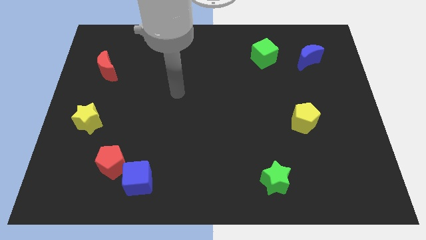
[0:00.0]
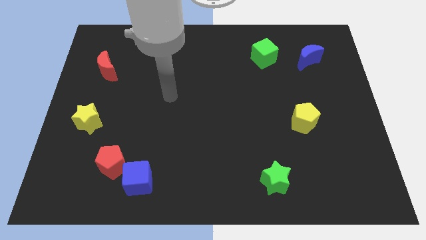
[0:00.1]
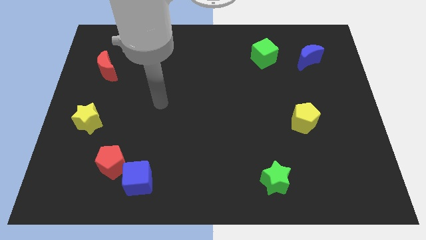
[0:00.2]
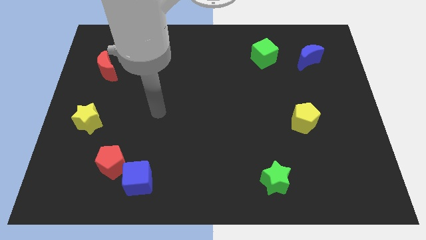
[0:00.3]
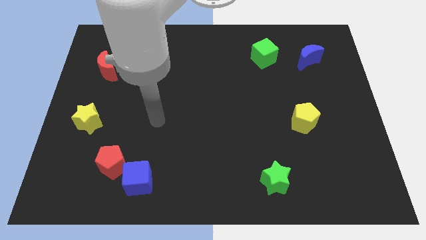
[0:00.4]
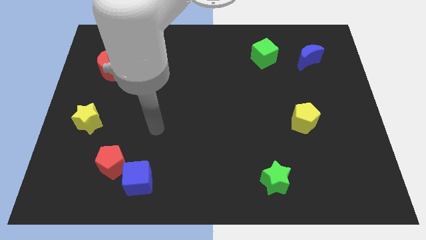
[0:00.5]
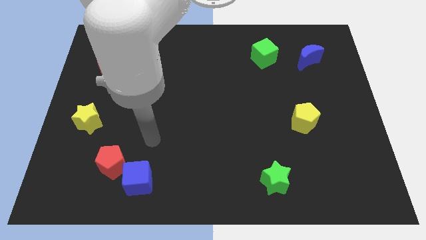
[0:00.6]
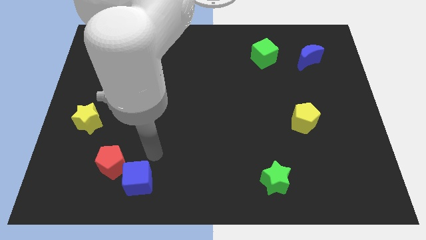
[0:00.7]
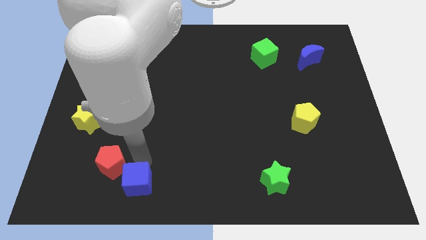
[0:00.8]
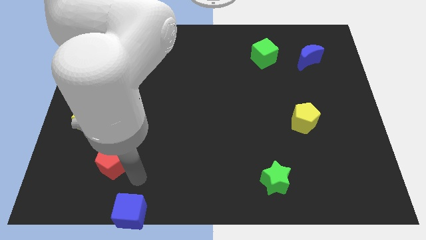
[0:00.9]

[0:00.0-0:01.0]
pull the red pentagon apart from the blue cube

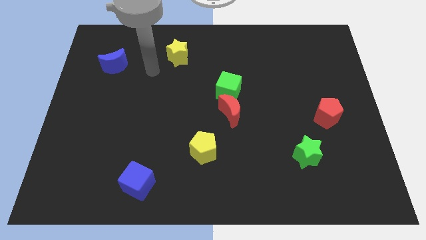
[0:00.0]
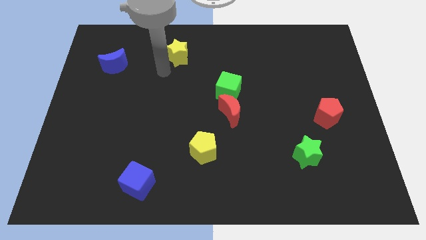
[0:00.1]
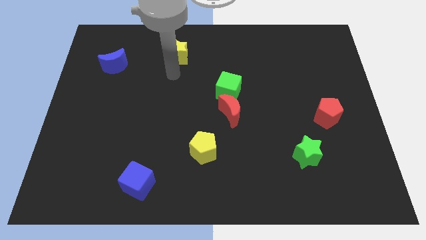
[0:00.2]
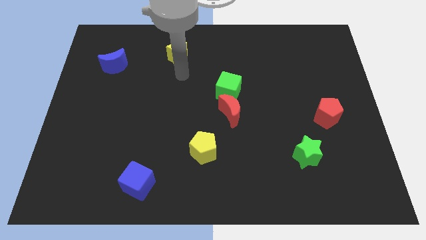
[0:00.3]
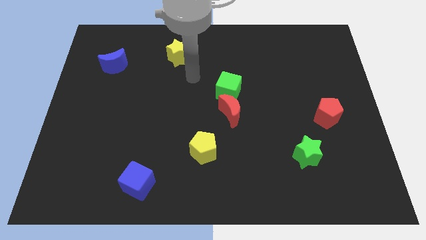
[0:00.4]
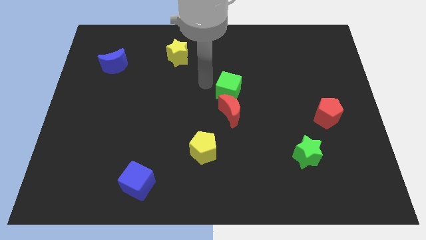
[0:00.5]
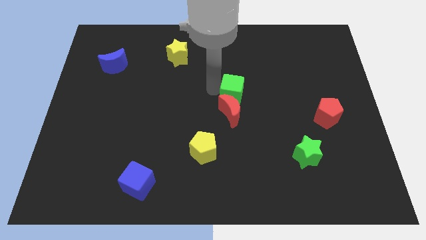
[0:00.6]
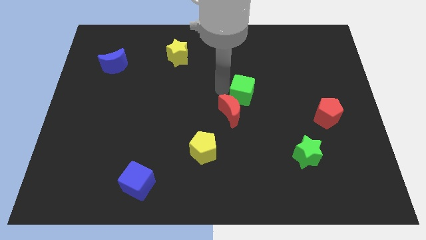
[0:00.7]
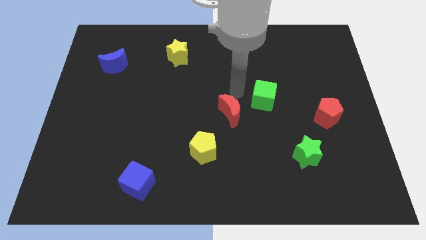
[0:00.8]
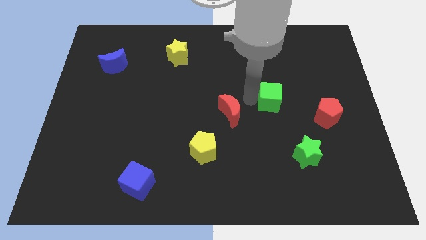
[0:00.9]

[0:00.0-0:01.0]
separate the red moon from the green cube

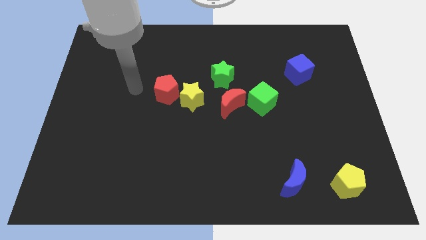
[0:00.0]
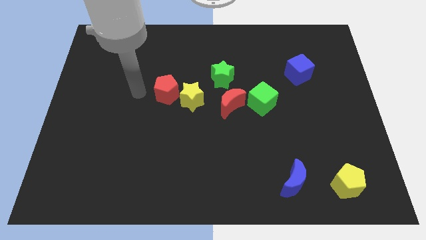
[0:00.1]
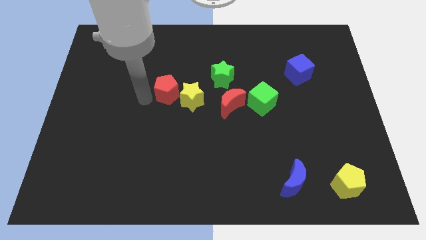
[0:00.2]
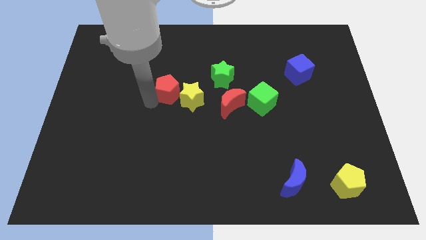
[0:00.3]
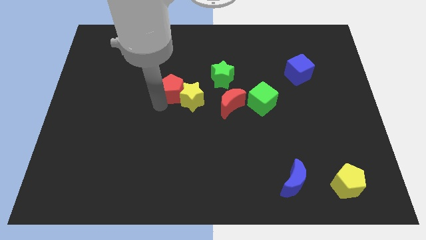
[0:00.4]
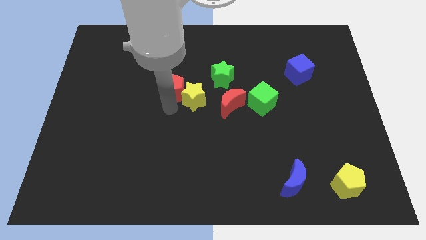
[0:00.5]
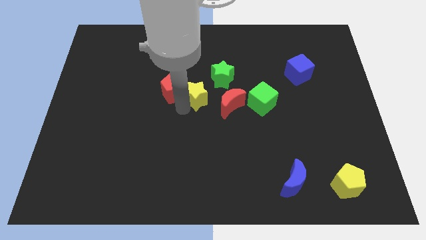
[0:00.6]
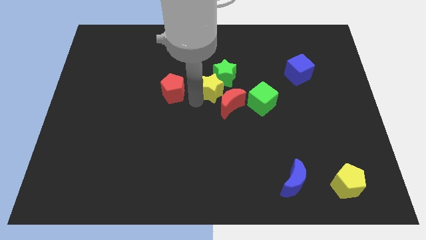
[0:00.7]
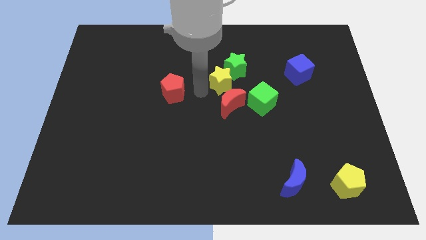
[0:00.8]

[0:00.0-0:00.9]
move the red pentagon away from the yellow star

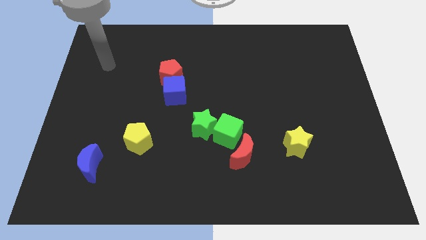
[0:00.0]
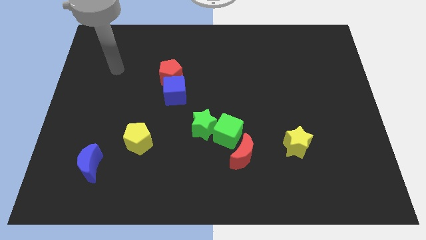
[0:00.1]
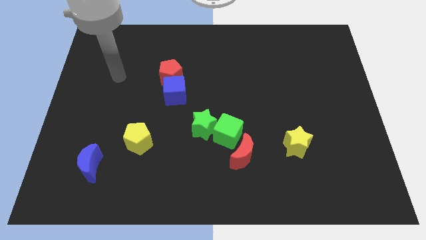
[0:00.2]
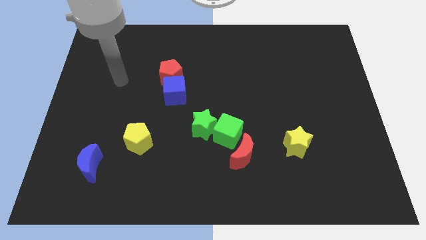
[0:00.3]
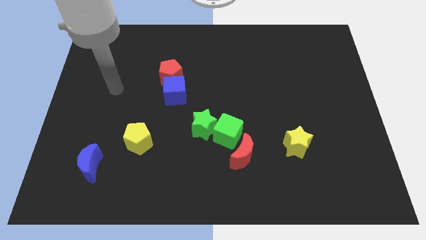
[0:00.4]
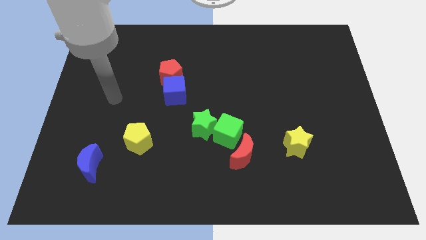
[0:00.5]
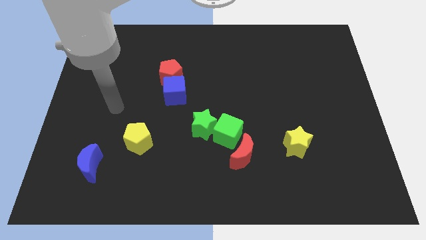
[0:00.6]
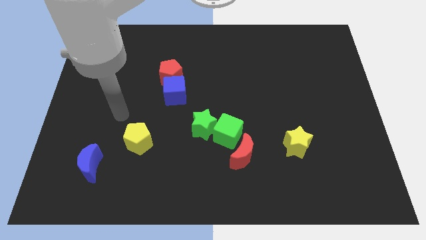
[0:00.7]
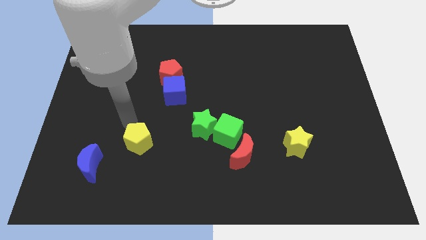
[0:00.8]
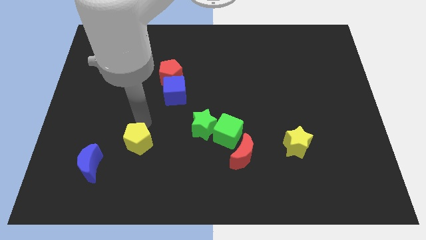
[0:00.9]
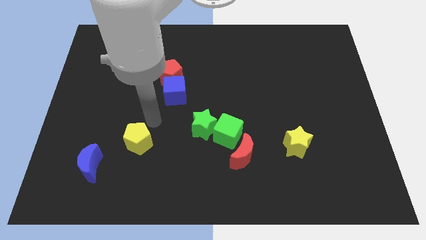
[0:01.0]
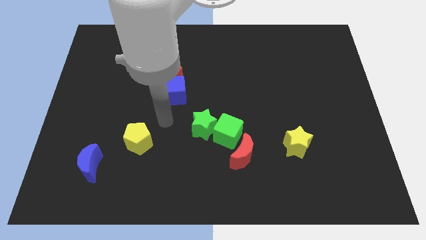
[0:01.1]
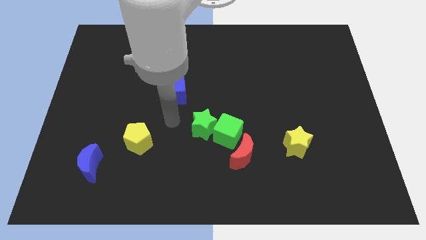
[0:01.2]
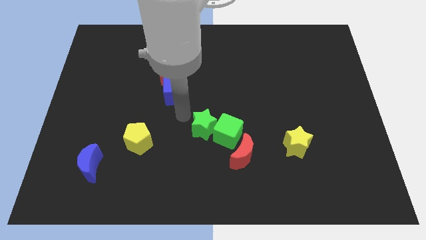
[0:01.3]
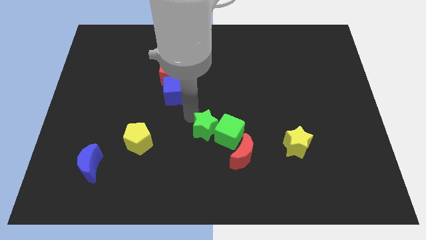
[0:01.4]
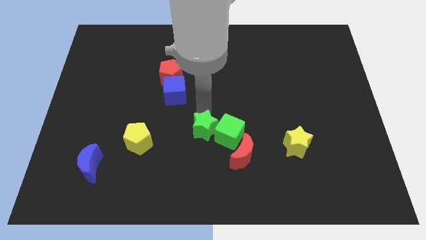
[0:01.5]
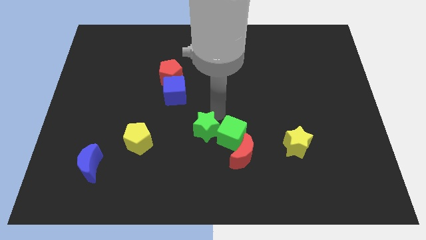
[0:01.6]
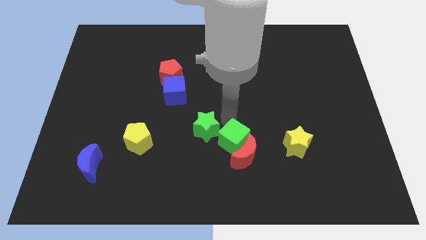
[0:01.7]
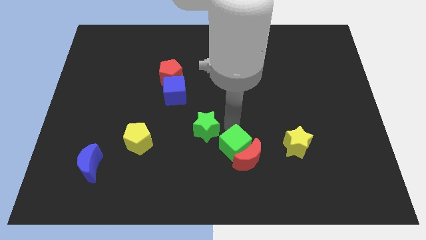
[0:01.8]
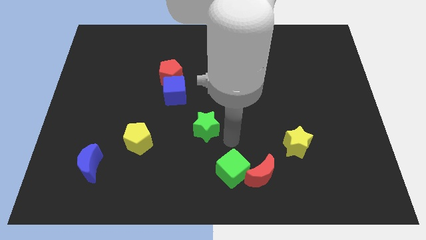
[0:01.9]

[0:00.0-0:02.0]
pull the green star apart from the green cube

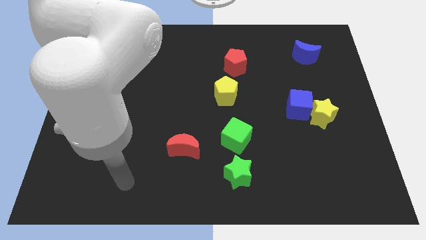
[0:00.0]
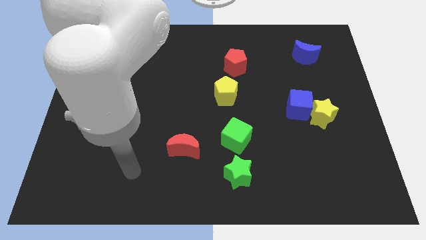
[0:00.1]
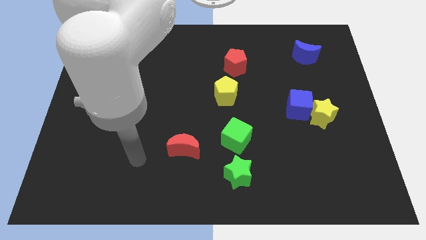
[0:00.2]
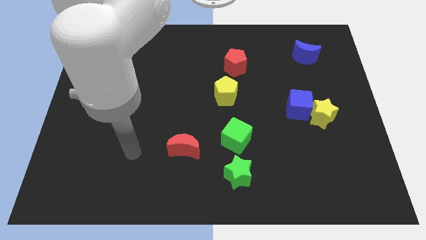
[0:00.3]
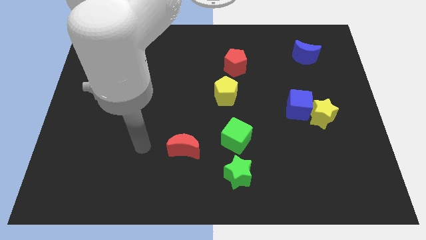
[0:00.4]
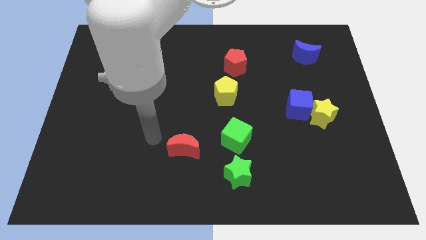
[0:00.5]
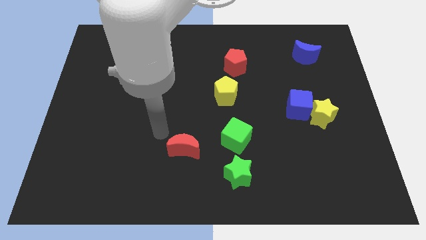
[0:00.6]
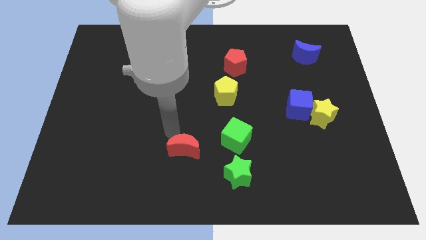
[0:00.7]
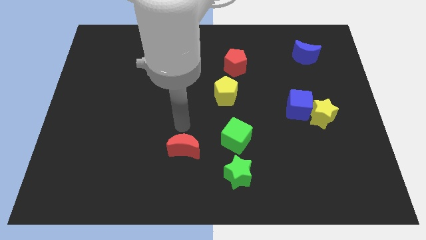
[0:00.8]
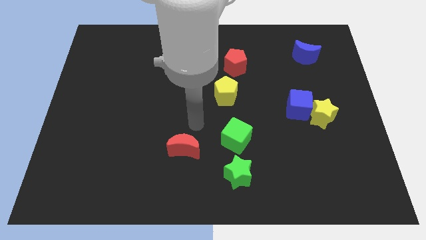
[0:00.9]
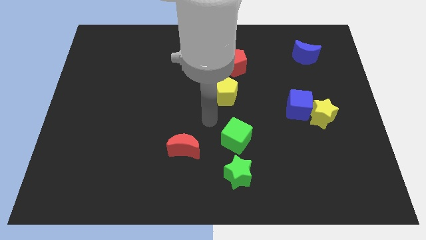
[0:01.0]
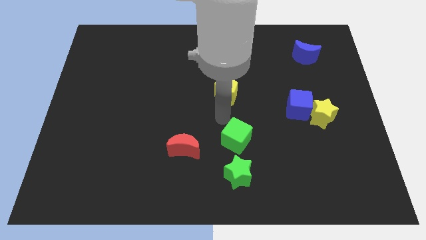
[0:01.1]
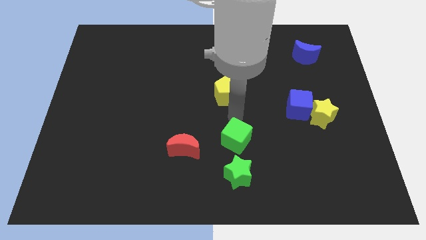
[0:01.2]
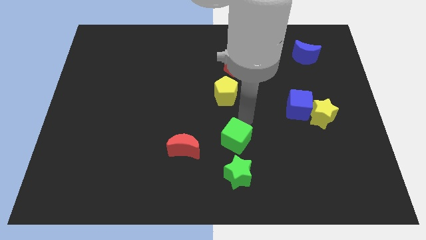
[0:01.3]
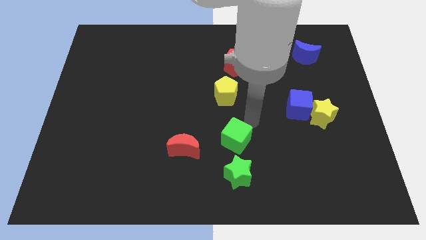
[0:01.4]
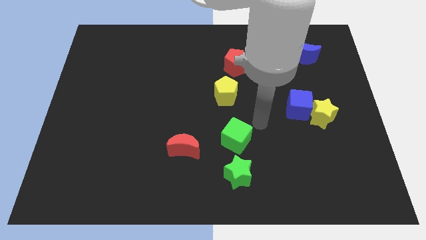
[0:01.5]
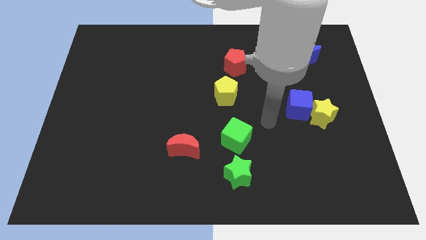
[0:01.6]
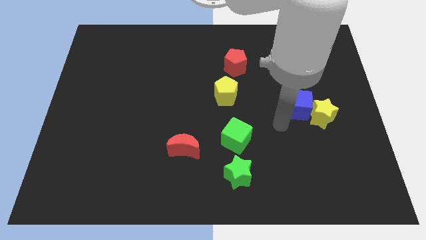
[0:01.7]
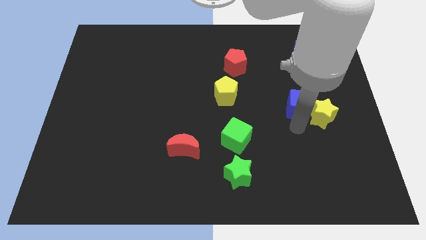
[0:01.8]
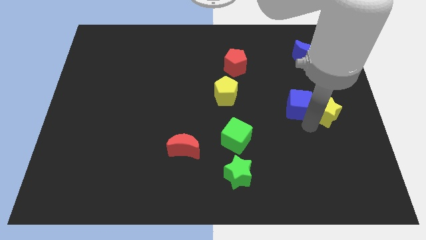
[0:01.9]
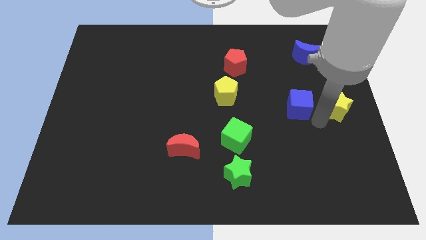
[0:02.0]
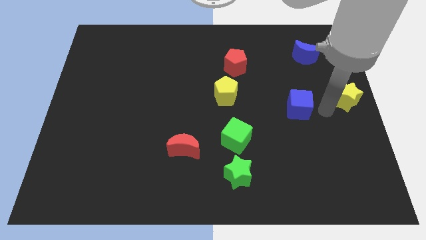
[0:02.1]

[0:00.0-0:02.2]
pull the blue cube apart from the yellow star

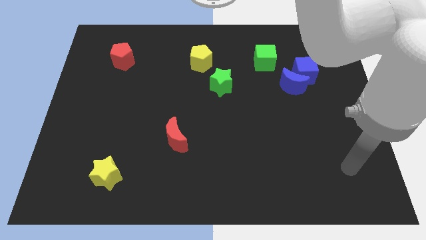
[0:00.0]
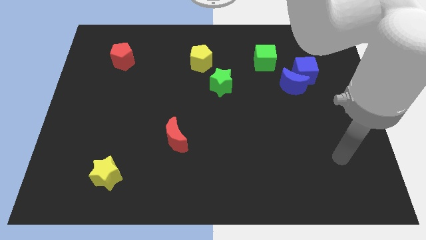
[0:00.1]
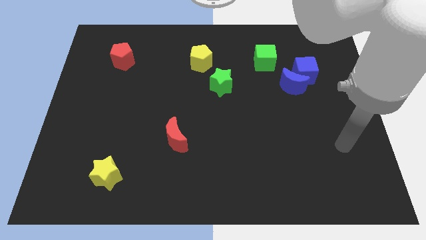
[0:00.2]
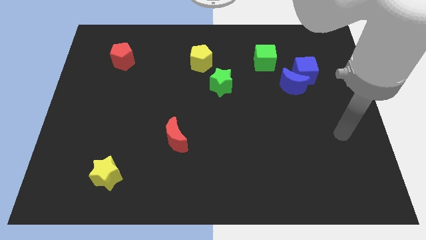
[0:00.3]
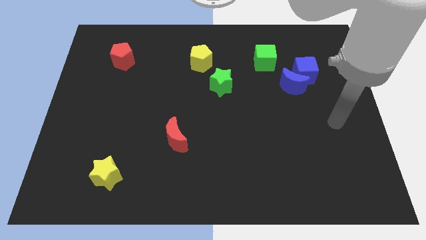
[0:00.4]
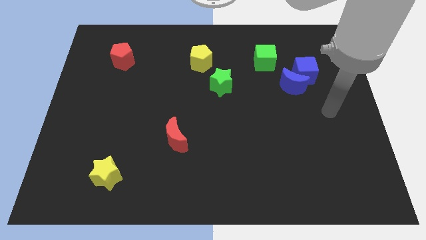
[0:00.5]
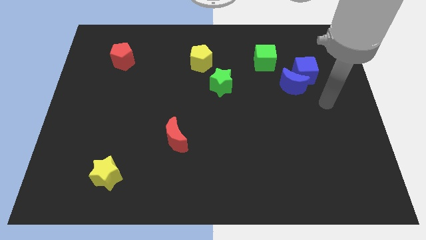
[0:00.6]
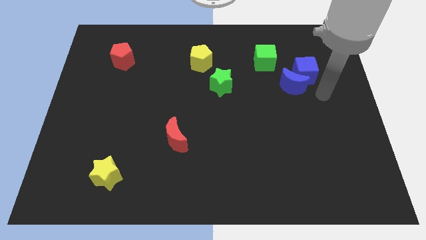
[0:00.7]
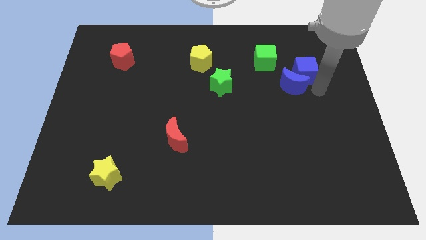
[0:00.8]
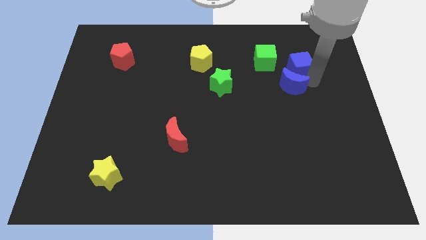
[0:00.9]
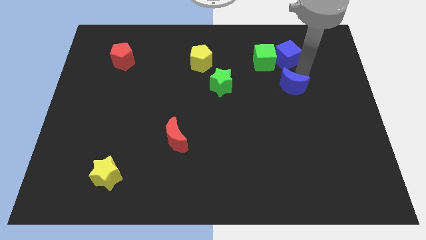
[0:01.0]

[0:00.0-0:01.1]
move the blue moon away from the blue cube

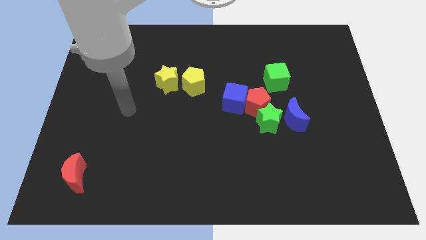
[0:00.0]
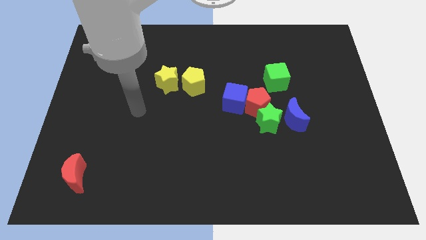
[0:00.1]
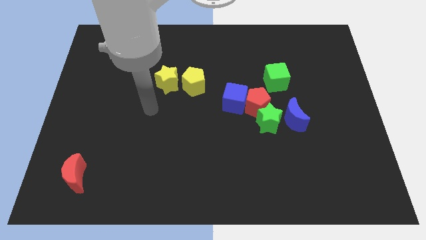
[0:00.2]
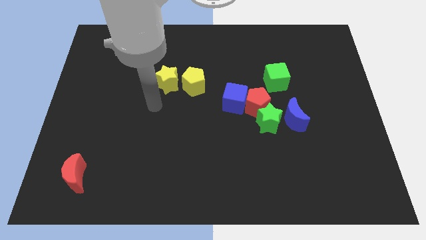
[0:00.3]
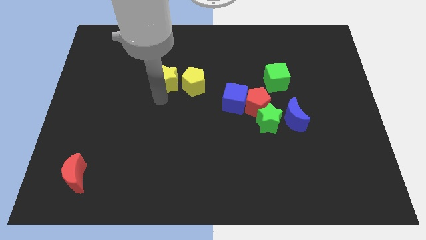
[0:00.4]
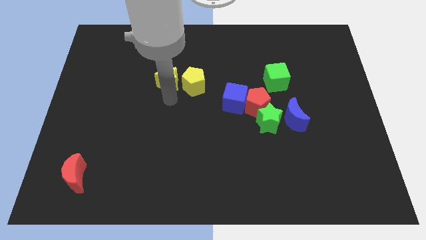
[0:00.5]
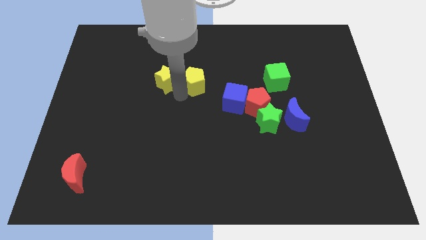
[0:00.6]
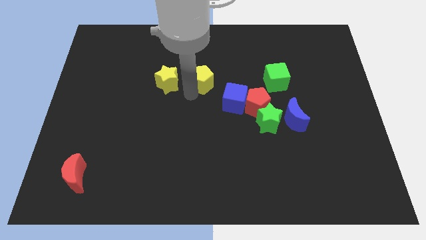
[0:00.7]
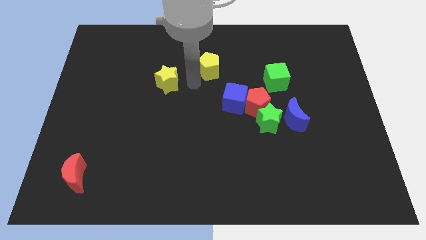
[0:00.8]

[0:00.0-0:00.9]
pull the yellow star apart from the yellow pentagon
